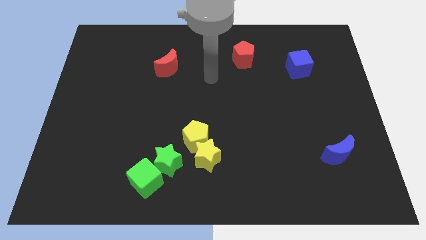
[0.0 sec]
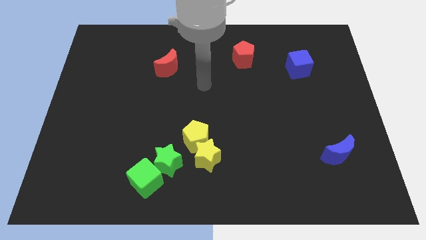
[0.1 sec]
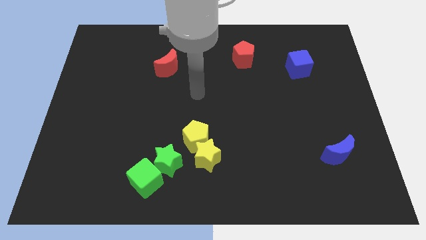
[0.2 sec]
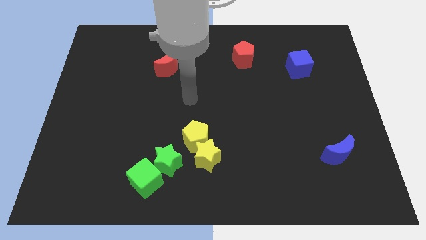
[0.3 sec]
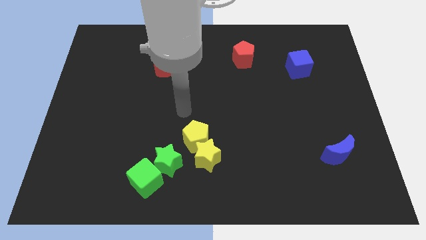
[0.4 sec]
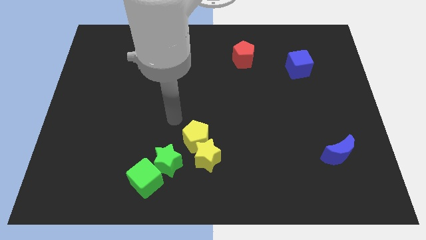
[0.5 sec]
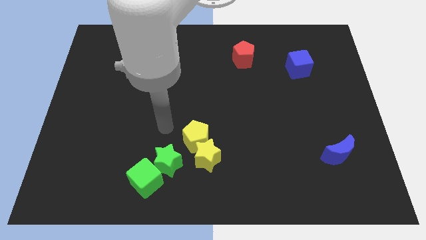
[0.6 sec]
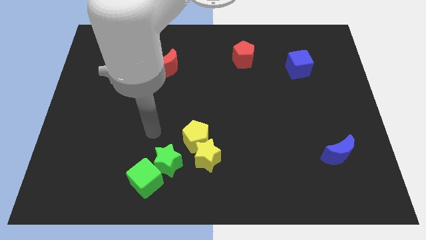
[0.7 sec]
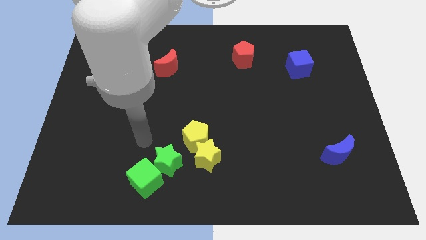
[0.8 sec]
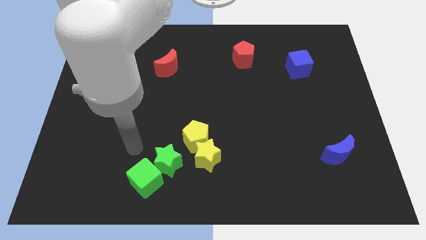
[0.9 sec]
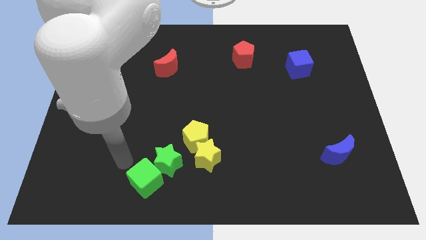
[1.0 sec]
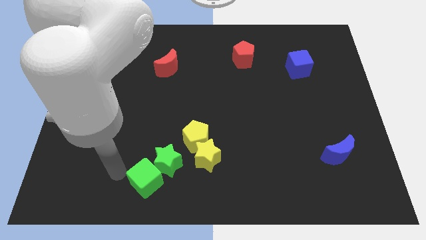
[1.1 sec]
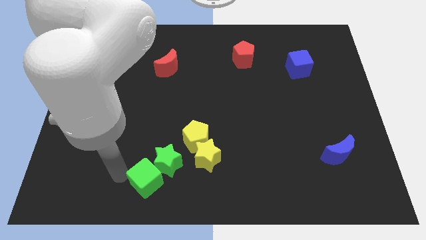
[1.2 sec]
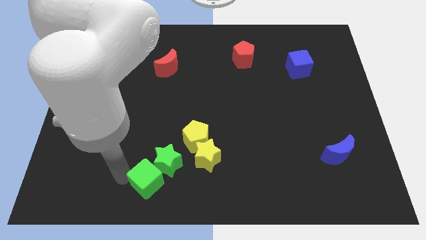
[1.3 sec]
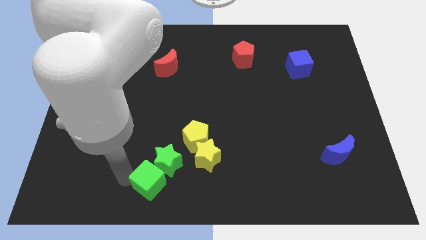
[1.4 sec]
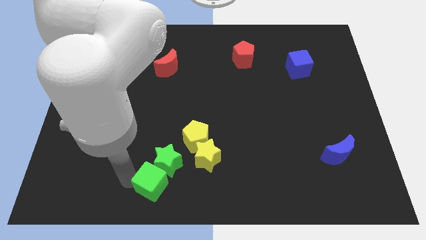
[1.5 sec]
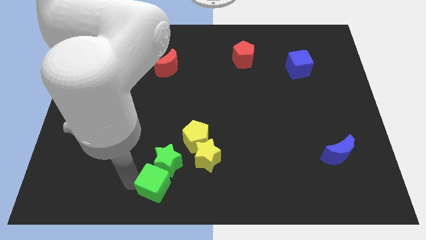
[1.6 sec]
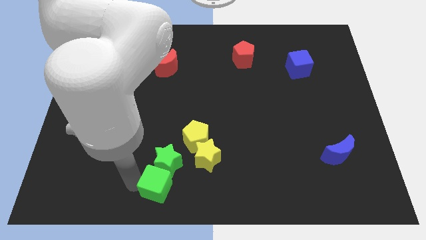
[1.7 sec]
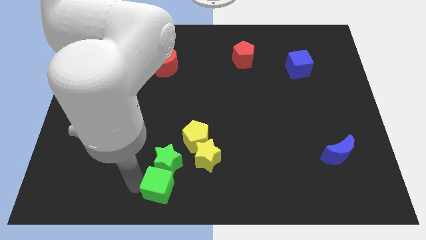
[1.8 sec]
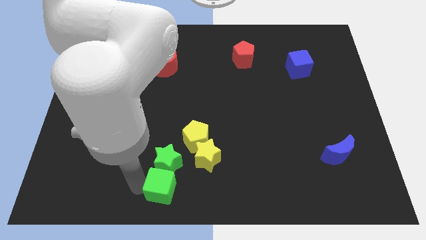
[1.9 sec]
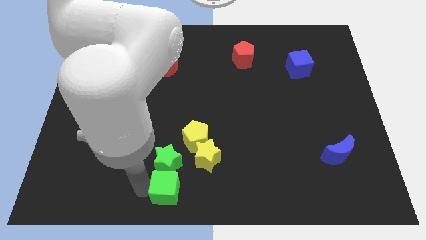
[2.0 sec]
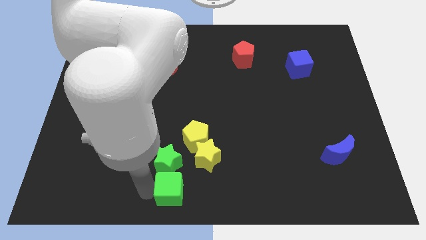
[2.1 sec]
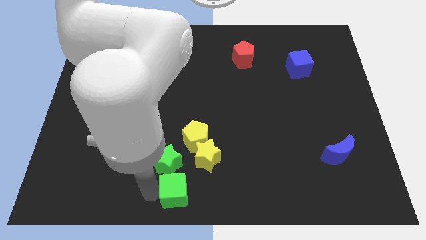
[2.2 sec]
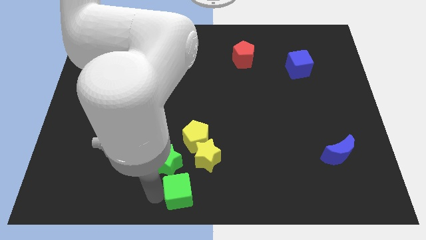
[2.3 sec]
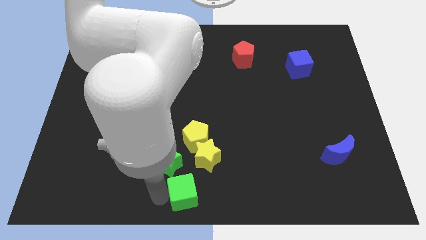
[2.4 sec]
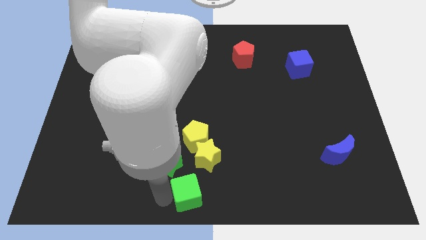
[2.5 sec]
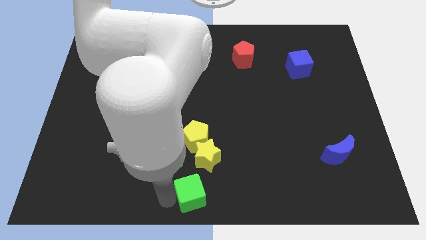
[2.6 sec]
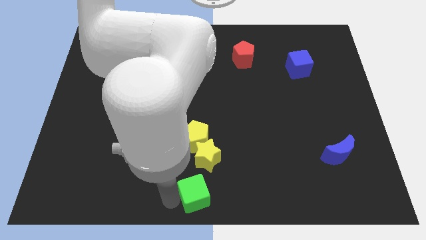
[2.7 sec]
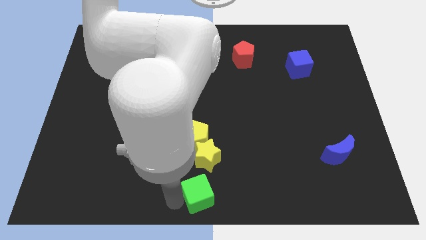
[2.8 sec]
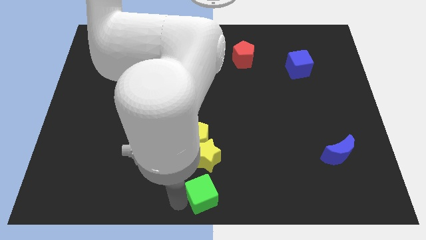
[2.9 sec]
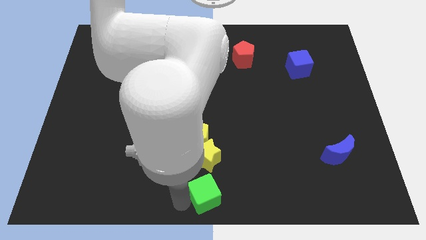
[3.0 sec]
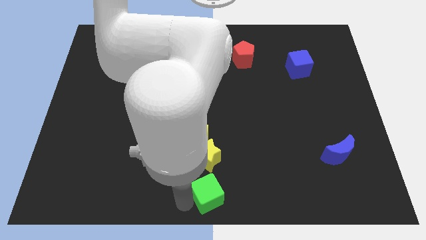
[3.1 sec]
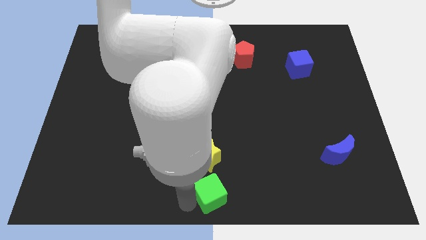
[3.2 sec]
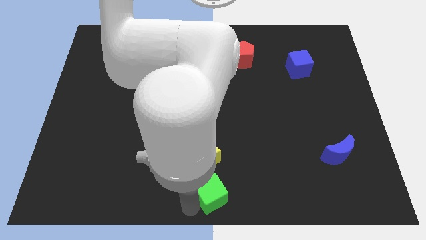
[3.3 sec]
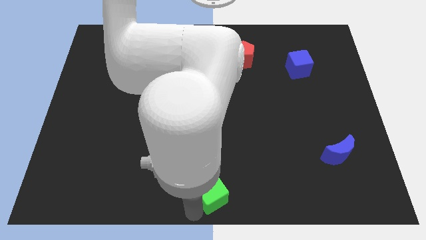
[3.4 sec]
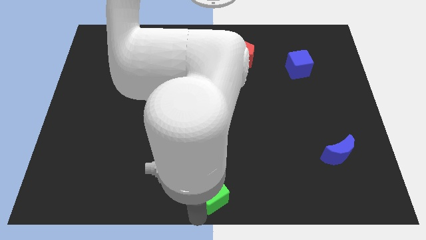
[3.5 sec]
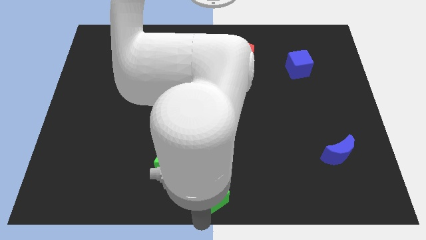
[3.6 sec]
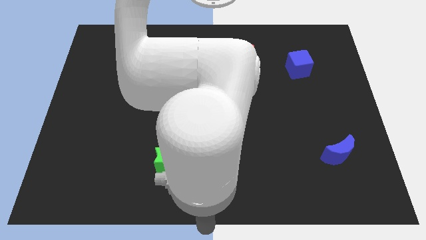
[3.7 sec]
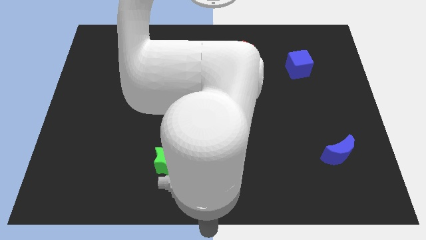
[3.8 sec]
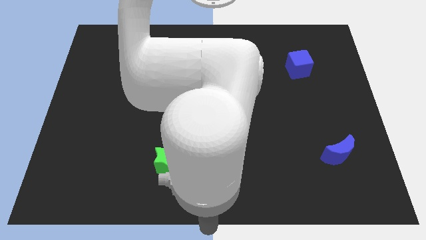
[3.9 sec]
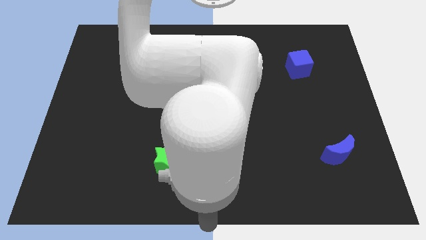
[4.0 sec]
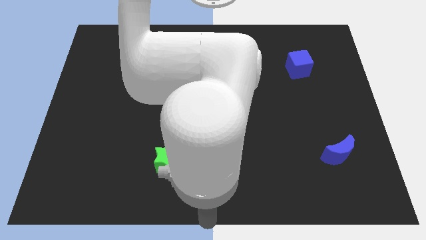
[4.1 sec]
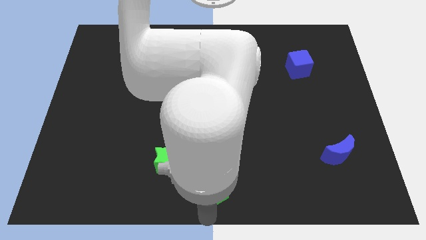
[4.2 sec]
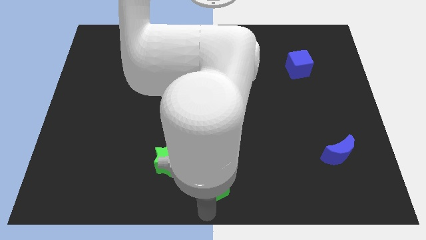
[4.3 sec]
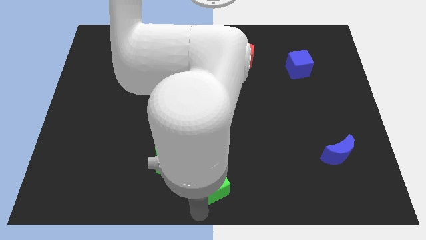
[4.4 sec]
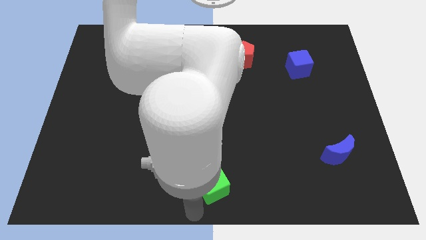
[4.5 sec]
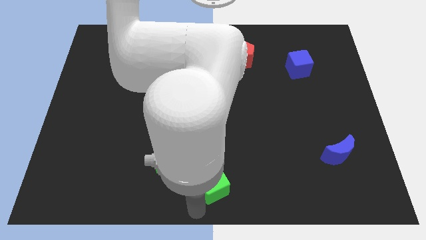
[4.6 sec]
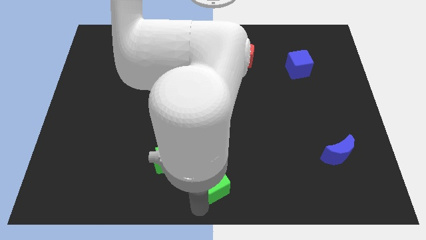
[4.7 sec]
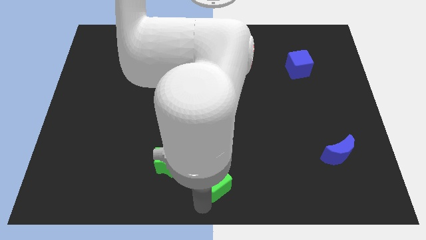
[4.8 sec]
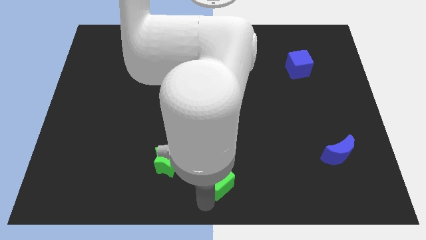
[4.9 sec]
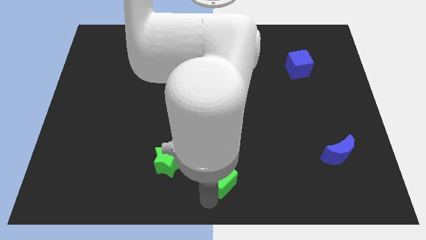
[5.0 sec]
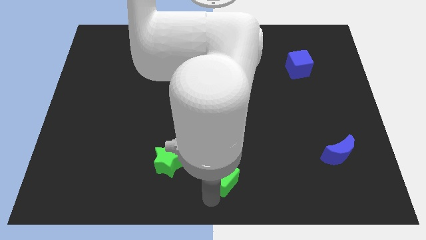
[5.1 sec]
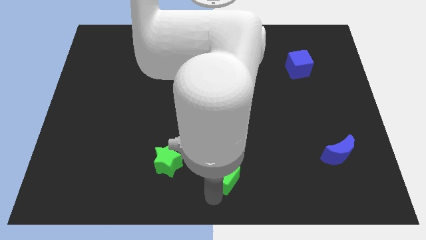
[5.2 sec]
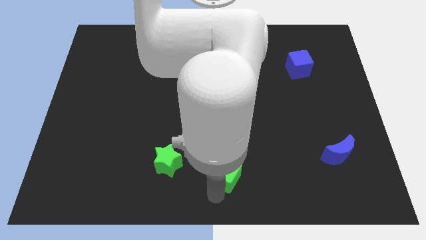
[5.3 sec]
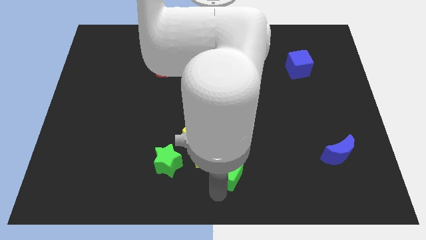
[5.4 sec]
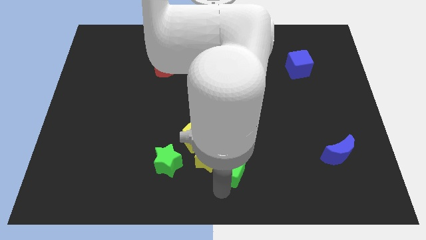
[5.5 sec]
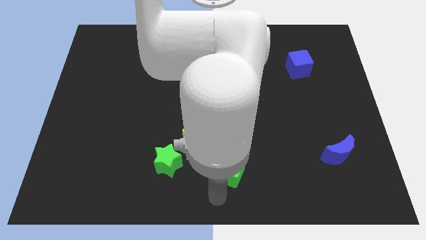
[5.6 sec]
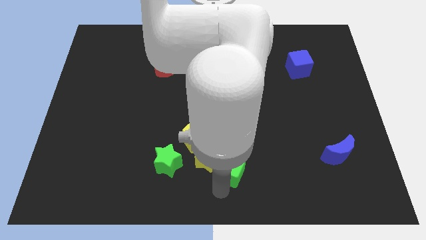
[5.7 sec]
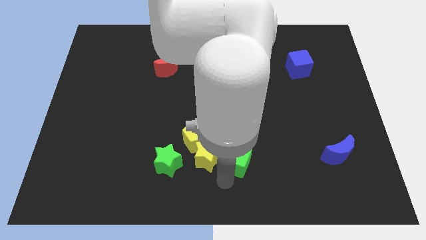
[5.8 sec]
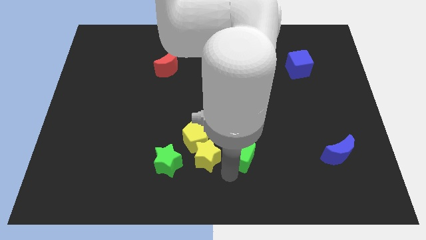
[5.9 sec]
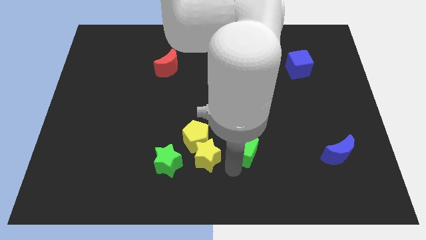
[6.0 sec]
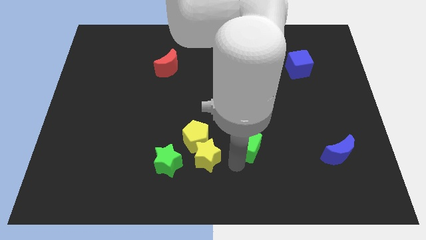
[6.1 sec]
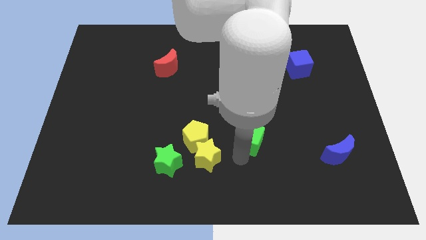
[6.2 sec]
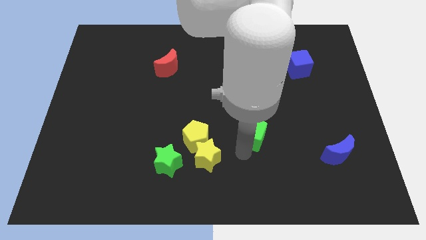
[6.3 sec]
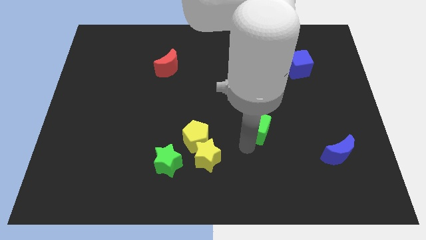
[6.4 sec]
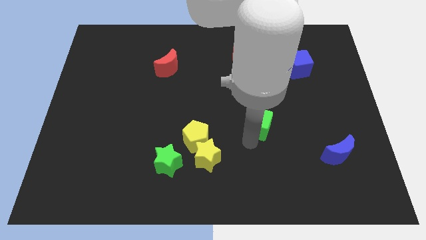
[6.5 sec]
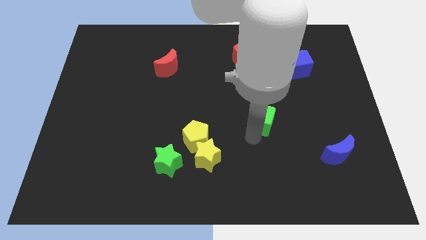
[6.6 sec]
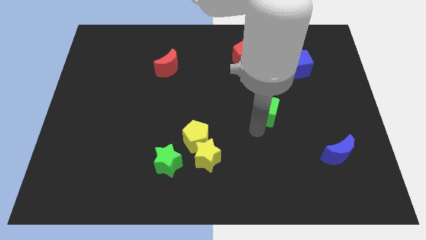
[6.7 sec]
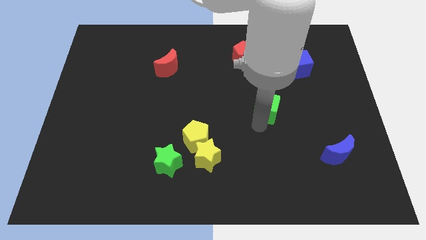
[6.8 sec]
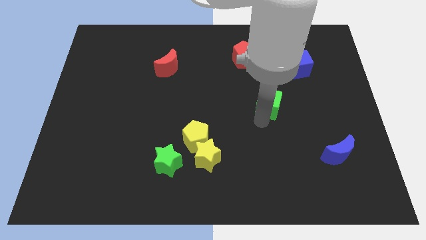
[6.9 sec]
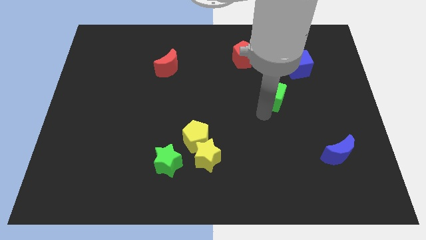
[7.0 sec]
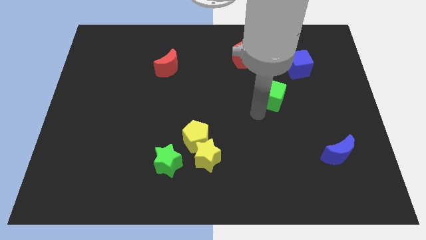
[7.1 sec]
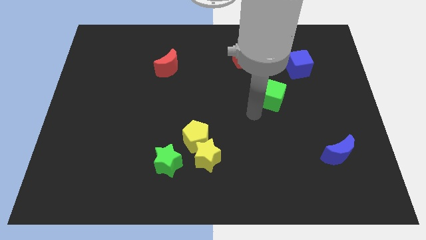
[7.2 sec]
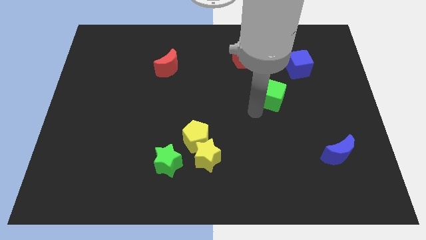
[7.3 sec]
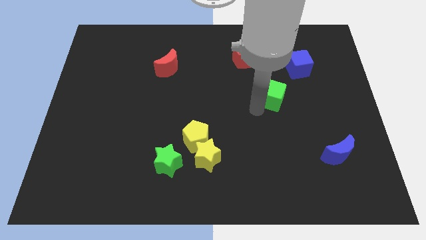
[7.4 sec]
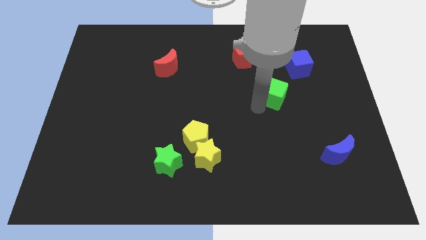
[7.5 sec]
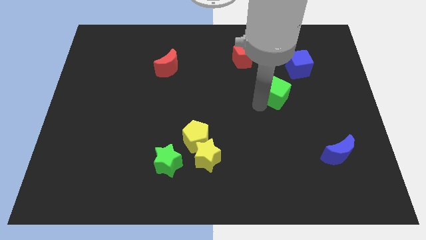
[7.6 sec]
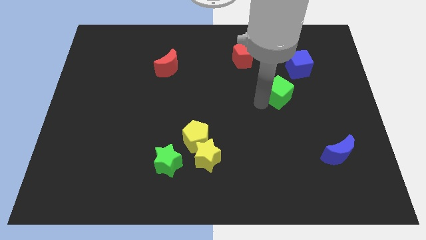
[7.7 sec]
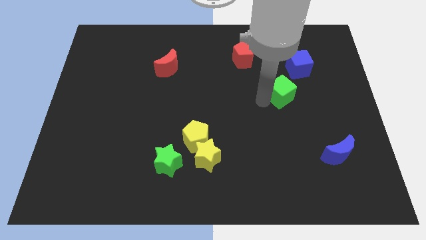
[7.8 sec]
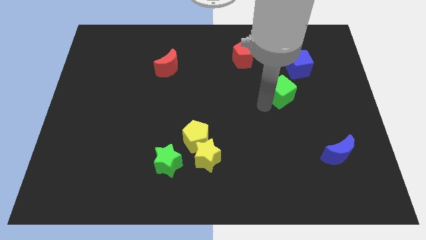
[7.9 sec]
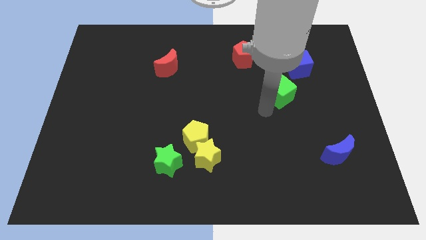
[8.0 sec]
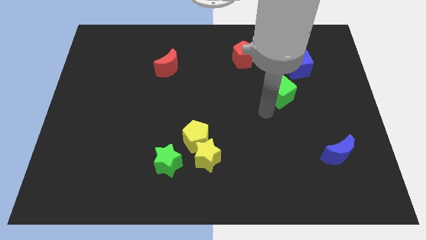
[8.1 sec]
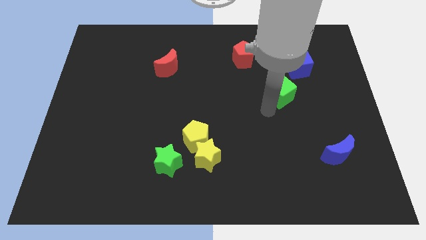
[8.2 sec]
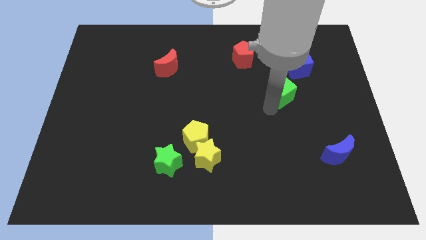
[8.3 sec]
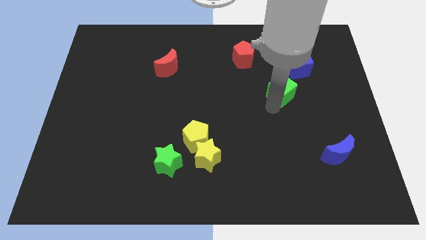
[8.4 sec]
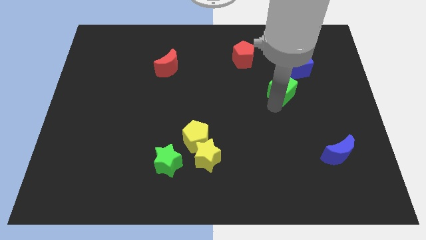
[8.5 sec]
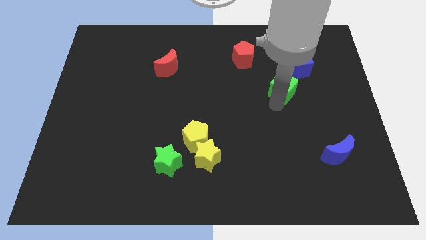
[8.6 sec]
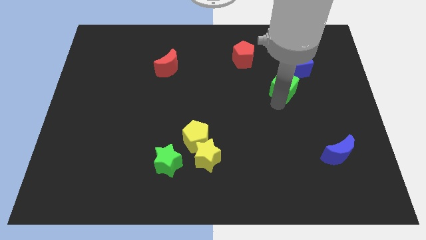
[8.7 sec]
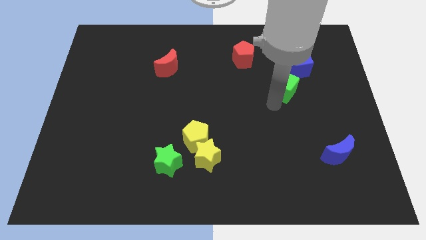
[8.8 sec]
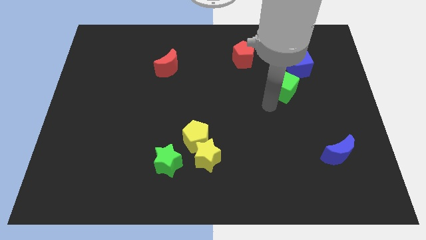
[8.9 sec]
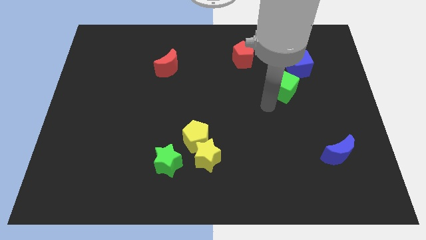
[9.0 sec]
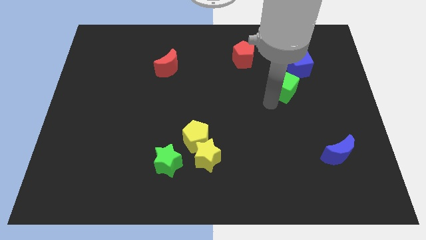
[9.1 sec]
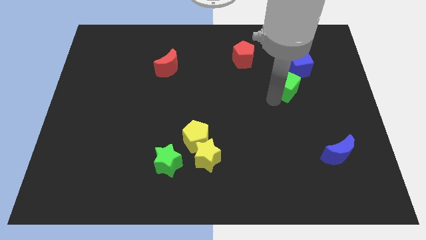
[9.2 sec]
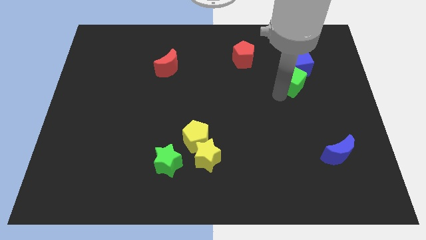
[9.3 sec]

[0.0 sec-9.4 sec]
push the green cube close to the blue cube
